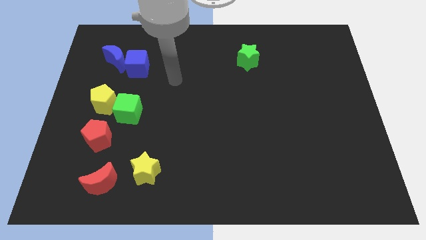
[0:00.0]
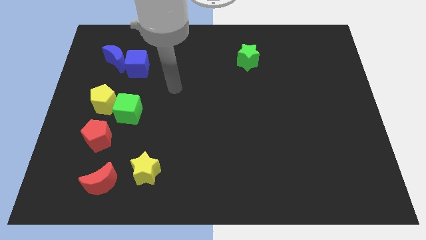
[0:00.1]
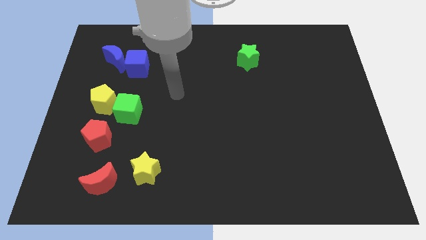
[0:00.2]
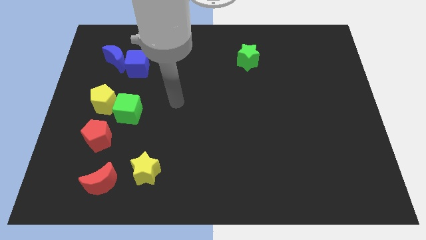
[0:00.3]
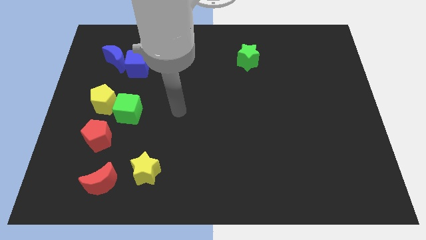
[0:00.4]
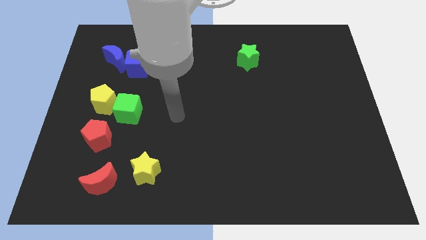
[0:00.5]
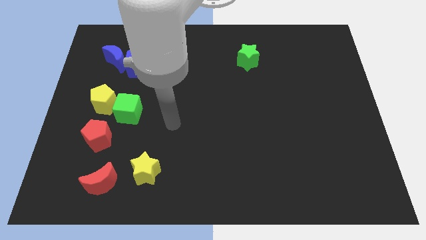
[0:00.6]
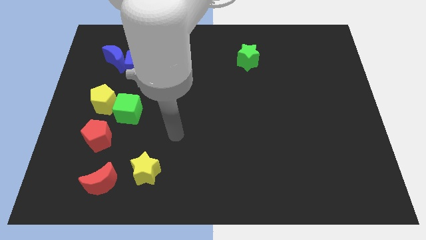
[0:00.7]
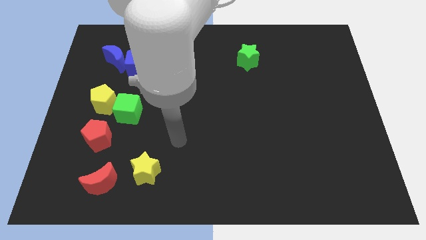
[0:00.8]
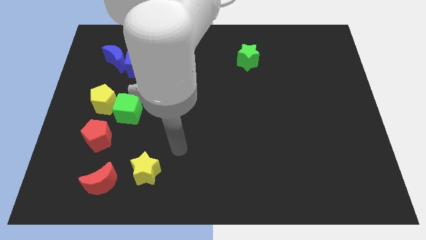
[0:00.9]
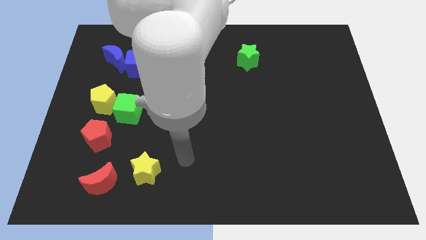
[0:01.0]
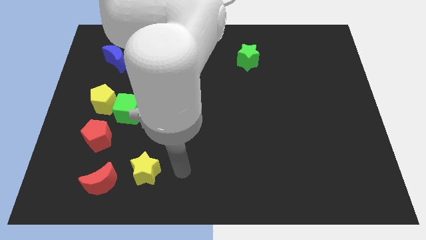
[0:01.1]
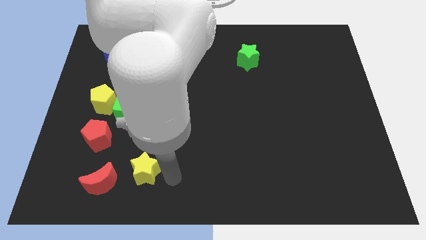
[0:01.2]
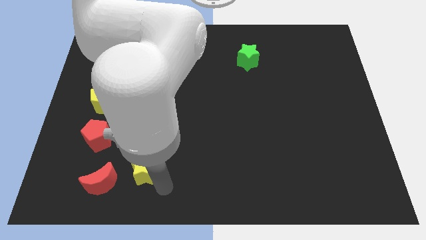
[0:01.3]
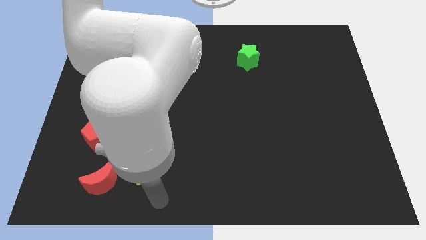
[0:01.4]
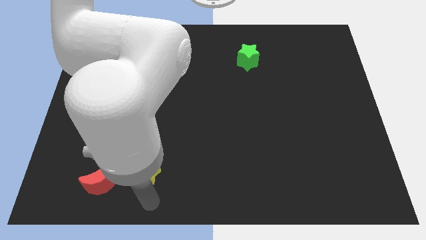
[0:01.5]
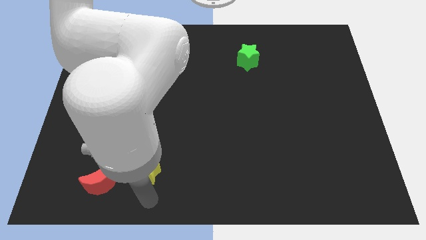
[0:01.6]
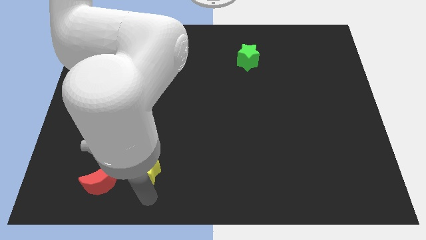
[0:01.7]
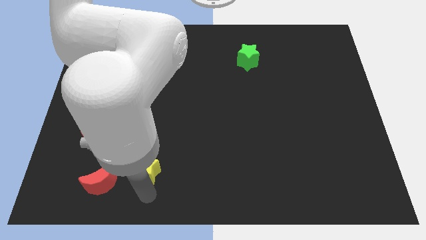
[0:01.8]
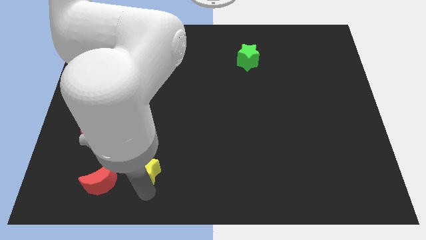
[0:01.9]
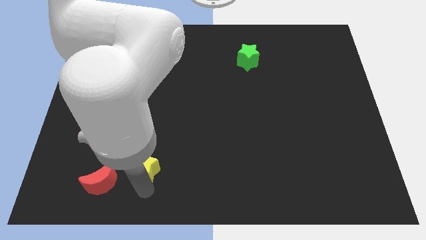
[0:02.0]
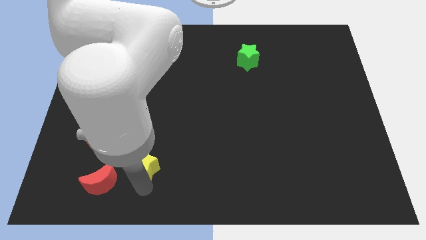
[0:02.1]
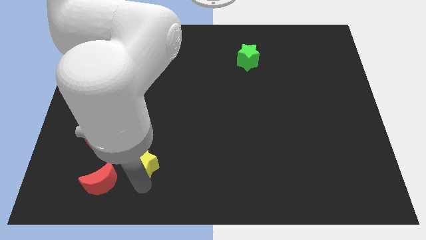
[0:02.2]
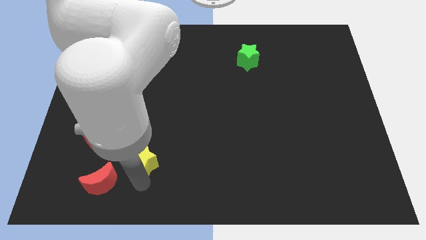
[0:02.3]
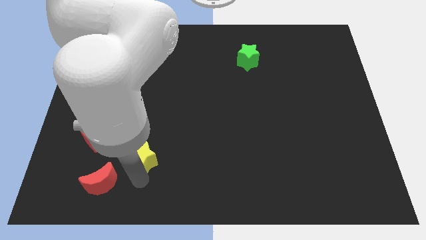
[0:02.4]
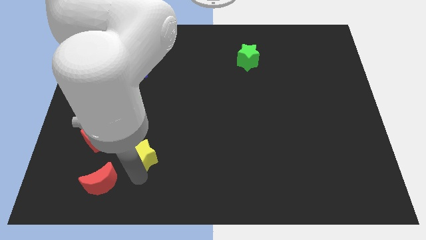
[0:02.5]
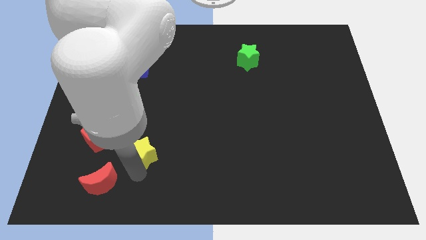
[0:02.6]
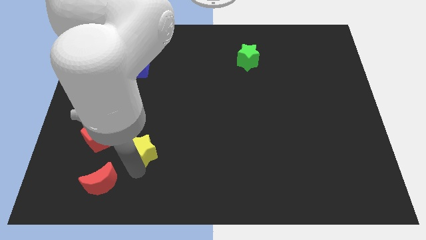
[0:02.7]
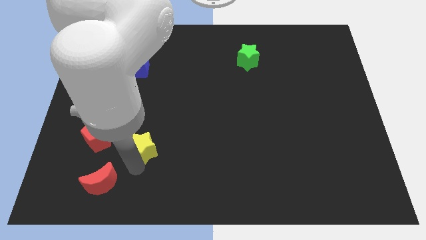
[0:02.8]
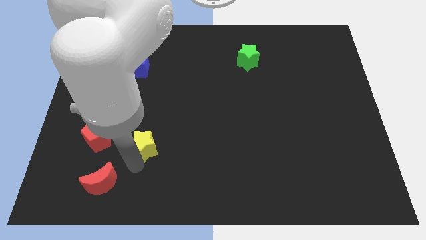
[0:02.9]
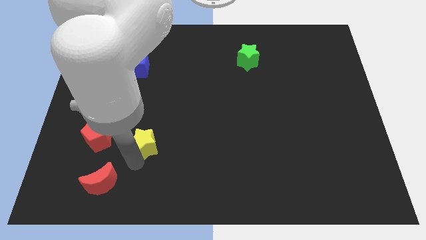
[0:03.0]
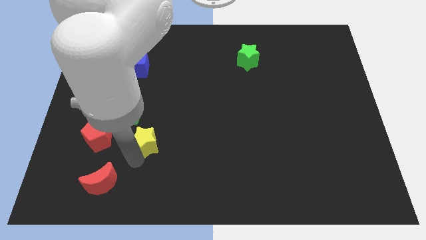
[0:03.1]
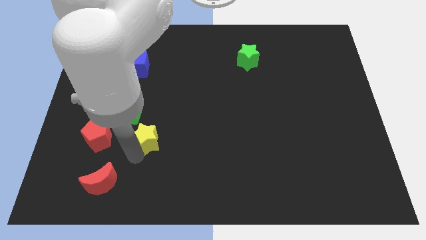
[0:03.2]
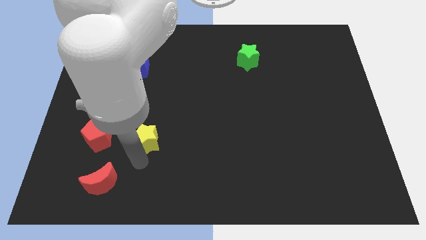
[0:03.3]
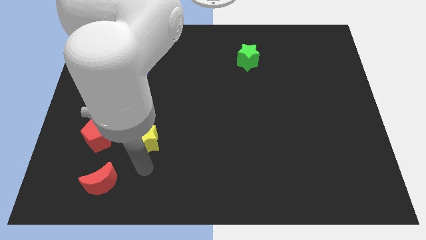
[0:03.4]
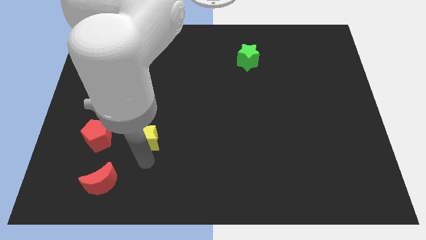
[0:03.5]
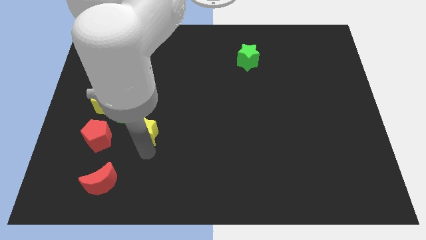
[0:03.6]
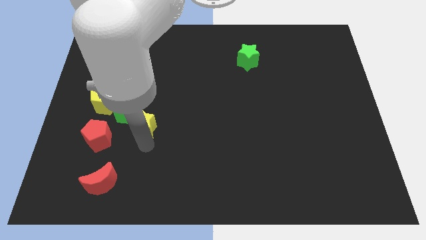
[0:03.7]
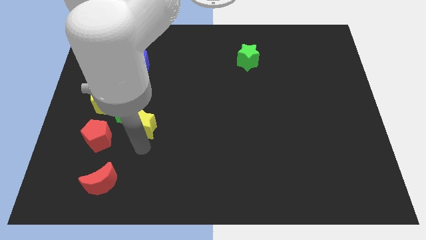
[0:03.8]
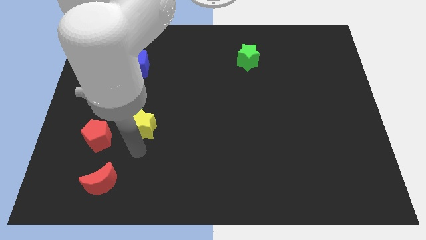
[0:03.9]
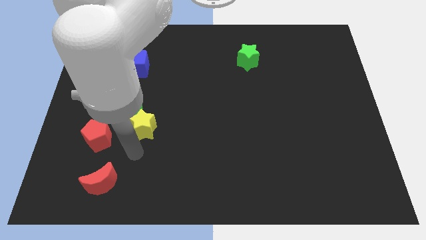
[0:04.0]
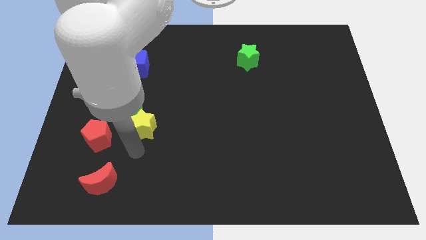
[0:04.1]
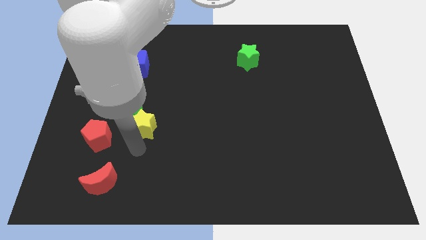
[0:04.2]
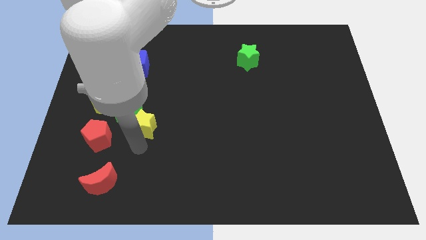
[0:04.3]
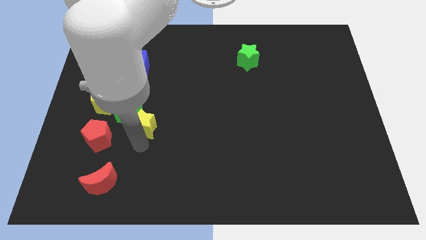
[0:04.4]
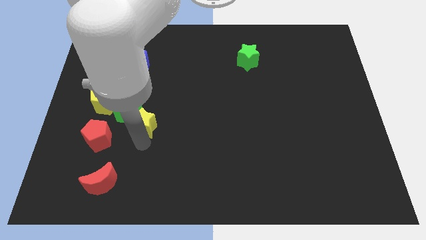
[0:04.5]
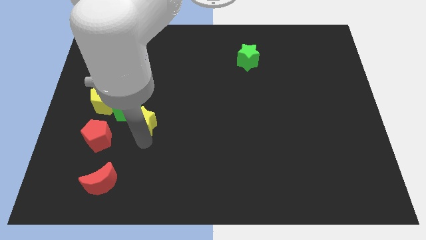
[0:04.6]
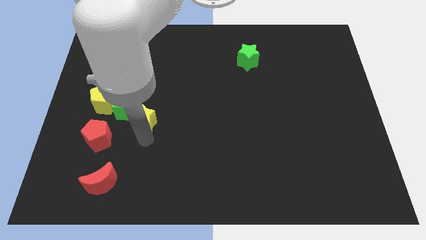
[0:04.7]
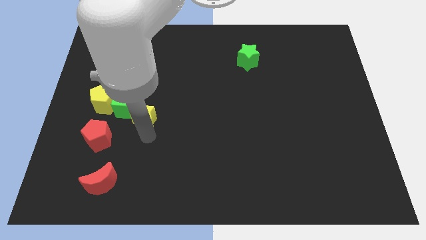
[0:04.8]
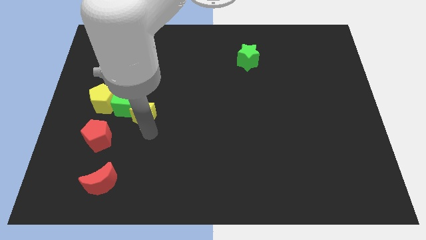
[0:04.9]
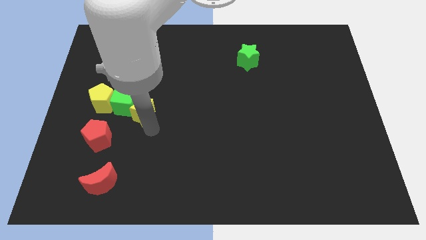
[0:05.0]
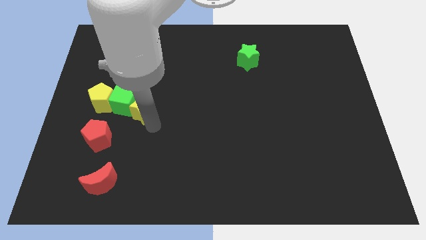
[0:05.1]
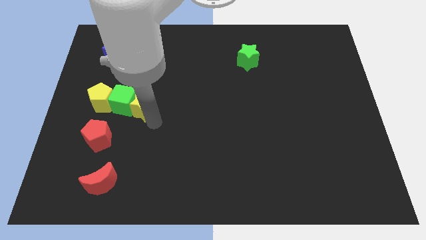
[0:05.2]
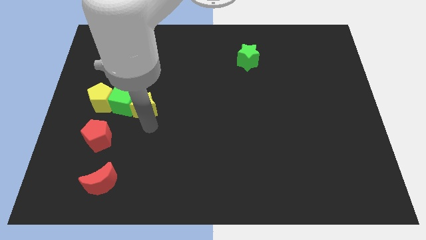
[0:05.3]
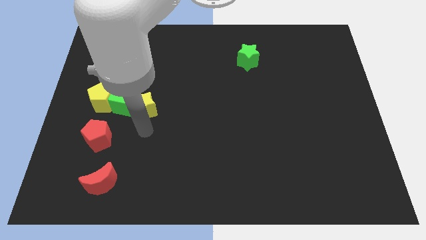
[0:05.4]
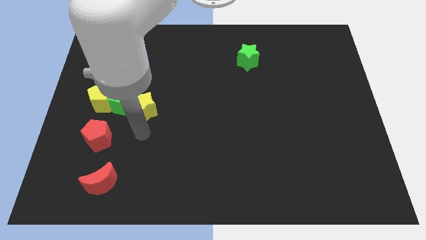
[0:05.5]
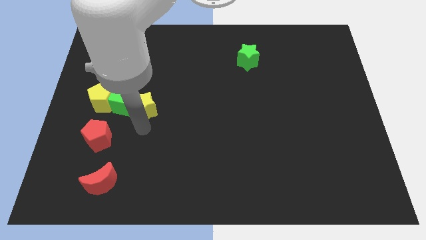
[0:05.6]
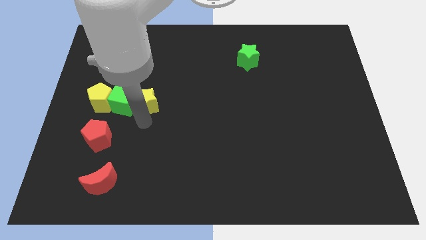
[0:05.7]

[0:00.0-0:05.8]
slide the yellow star diagonally up and to the right of the green cube

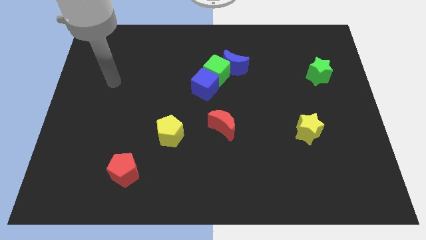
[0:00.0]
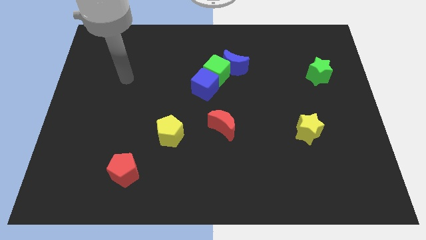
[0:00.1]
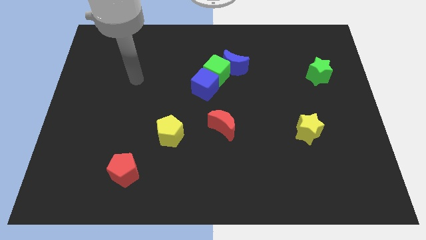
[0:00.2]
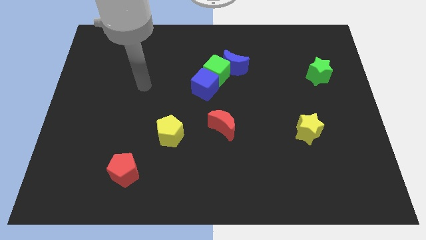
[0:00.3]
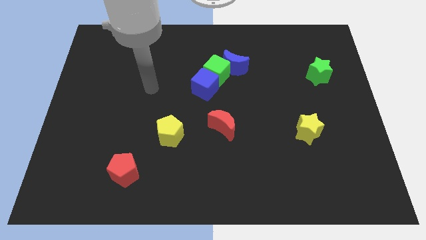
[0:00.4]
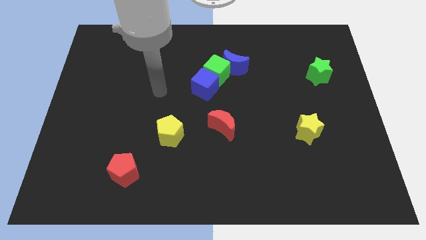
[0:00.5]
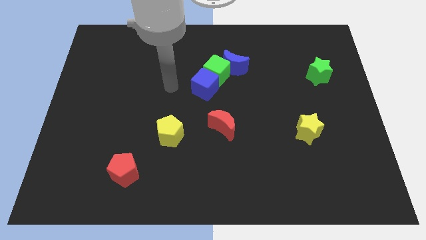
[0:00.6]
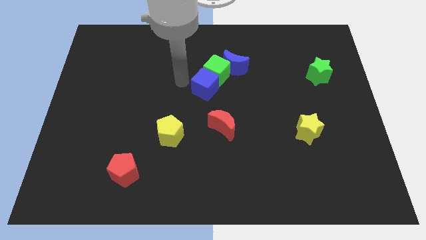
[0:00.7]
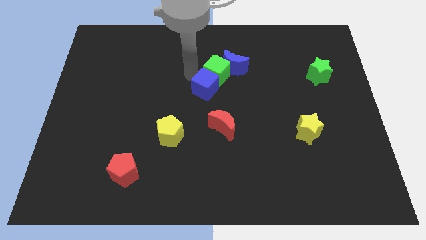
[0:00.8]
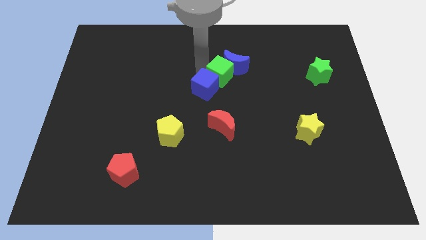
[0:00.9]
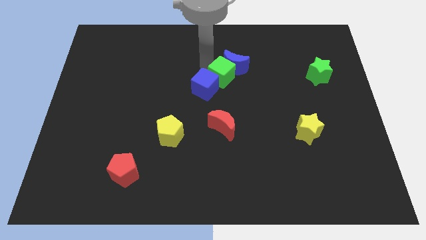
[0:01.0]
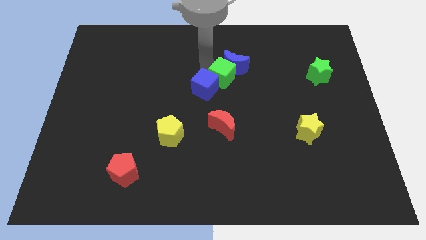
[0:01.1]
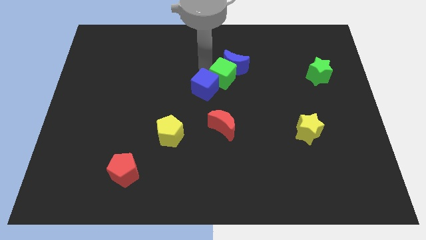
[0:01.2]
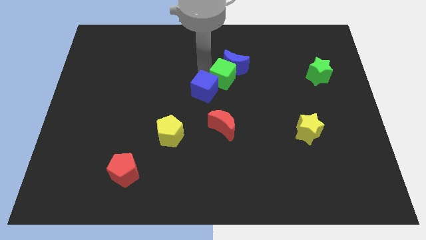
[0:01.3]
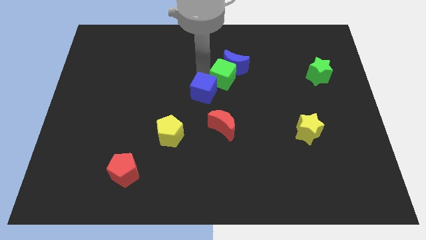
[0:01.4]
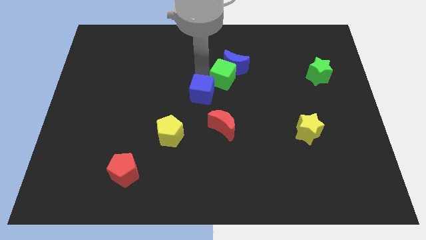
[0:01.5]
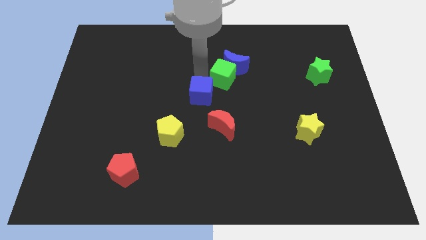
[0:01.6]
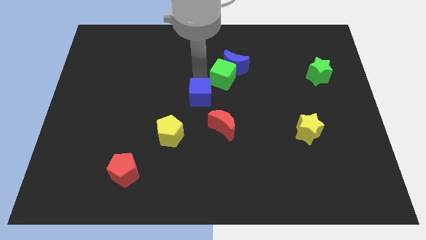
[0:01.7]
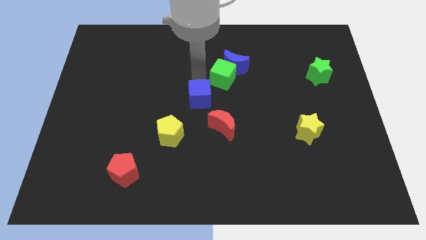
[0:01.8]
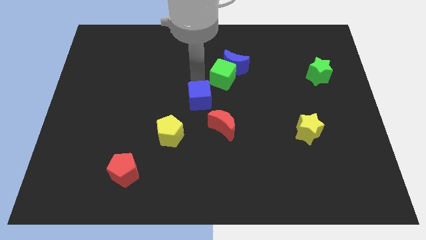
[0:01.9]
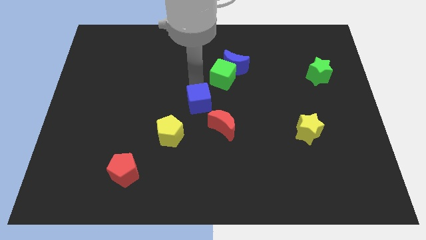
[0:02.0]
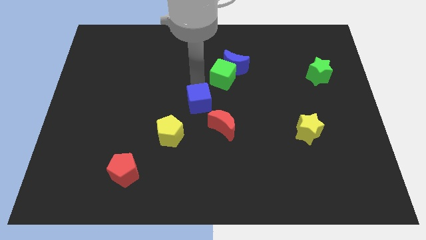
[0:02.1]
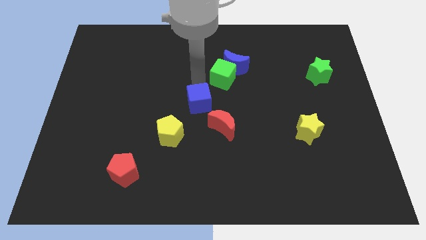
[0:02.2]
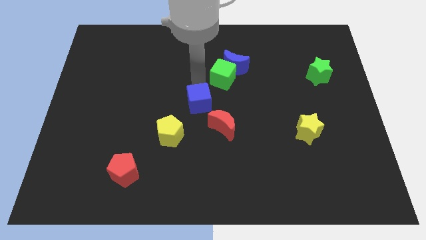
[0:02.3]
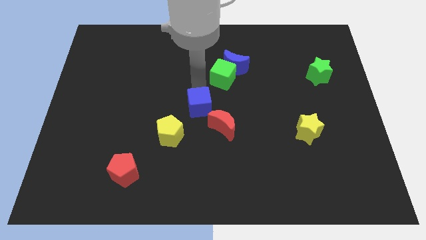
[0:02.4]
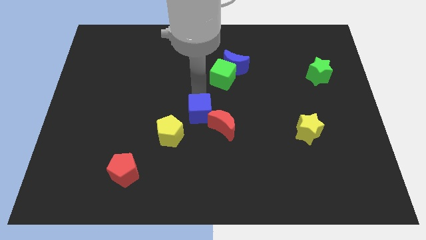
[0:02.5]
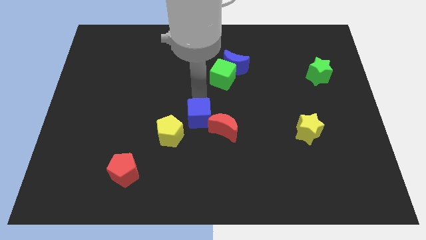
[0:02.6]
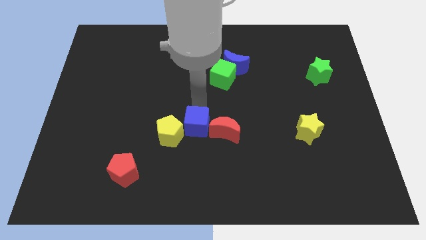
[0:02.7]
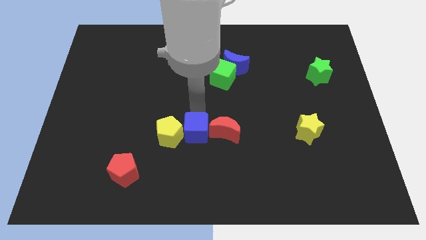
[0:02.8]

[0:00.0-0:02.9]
move the blue cube to the bottom left side of the red moon
